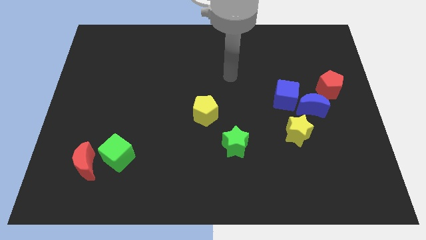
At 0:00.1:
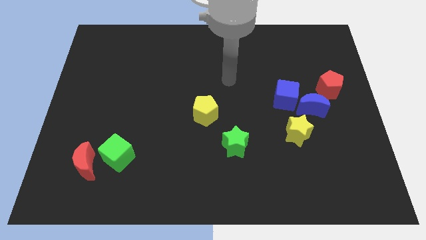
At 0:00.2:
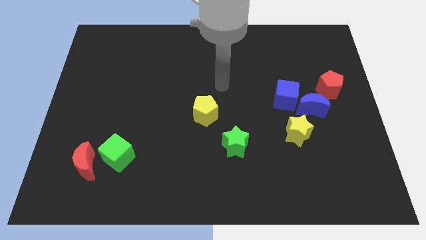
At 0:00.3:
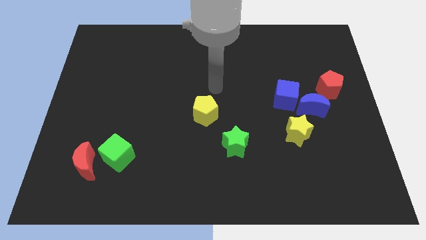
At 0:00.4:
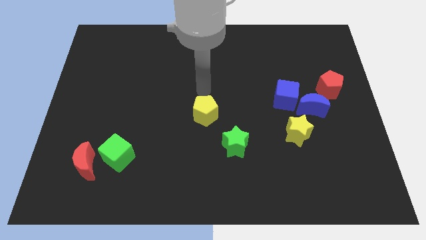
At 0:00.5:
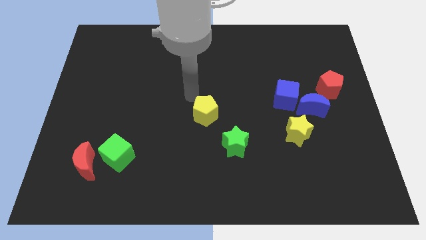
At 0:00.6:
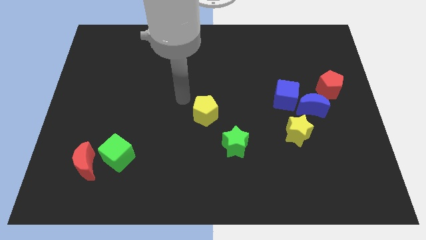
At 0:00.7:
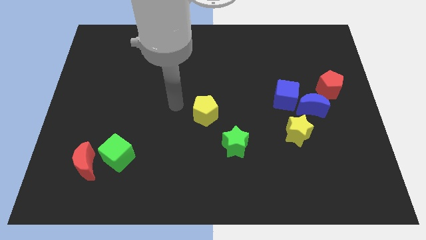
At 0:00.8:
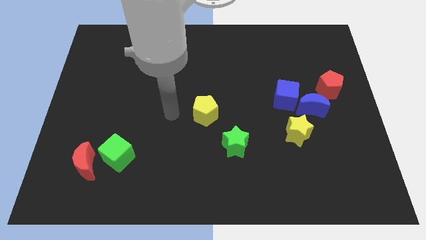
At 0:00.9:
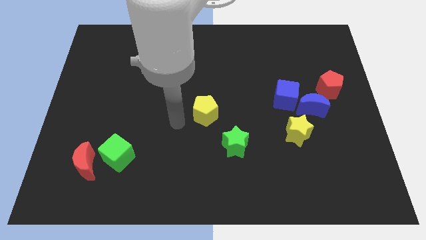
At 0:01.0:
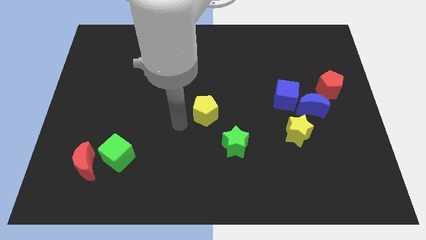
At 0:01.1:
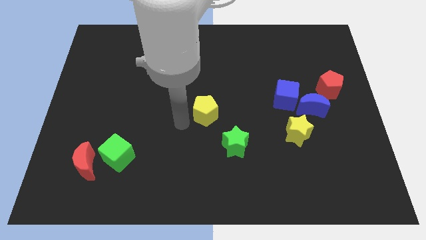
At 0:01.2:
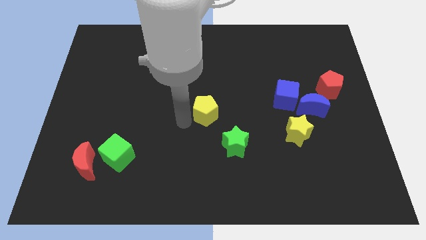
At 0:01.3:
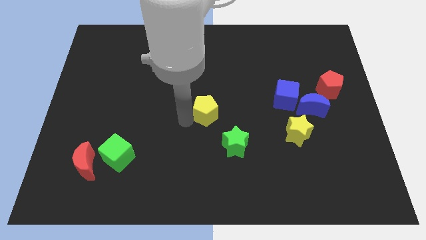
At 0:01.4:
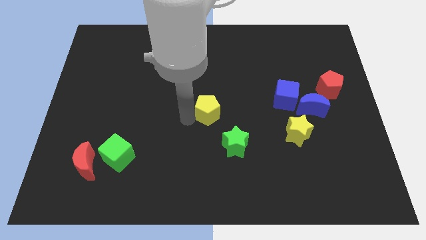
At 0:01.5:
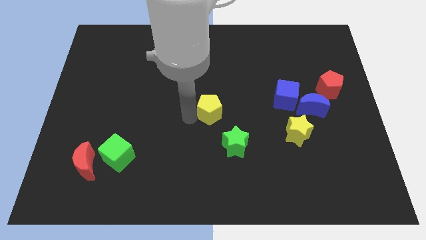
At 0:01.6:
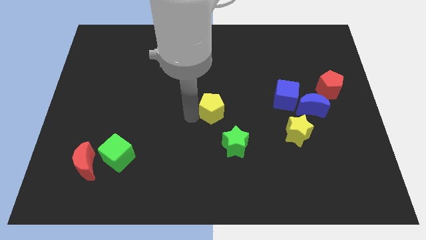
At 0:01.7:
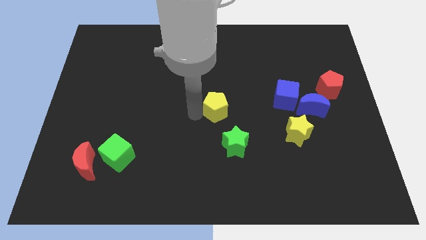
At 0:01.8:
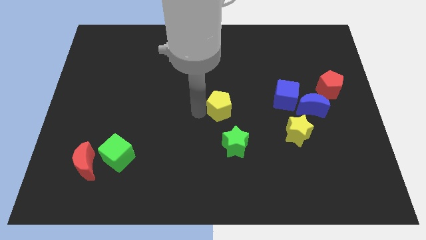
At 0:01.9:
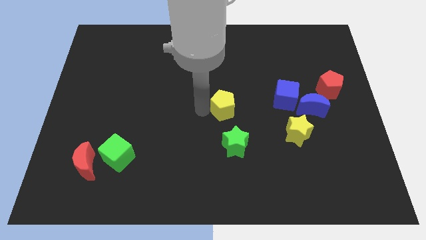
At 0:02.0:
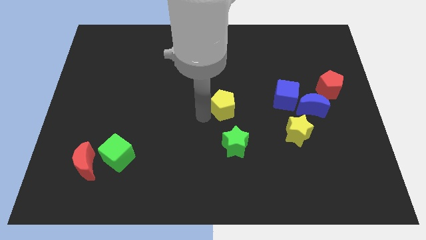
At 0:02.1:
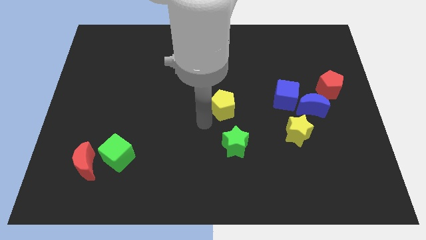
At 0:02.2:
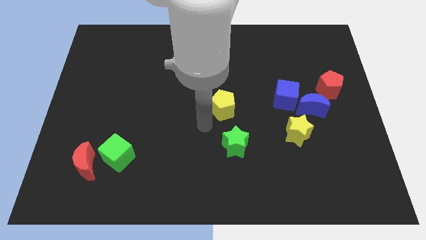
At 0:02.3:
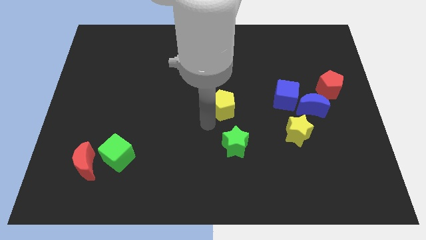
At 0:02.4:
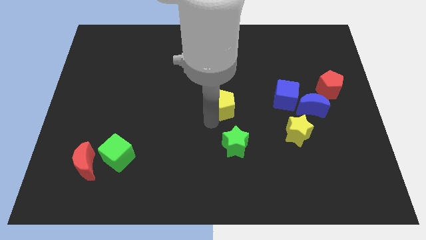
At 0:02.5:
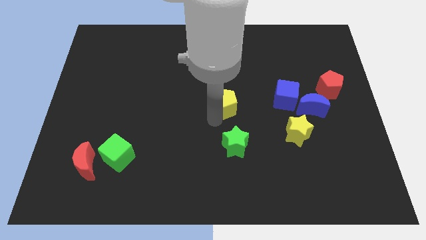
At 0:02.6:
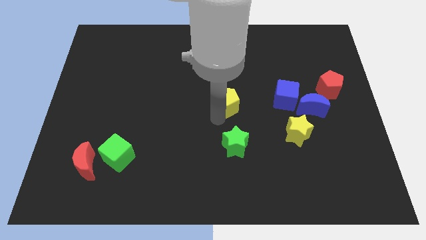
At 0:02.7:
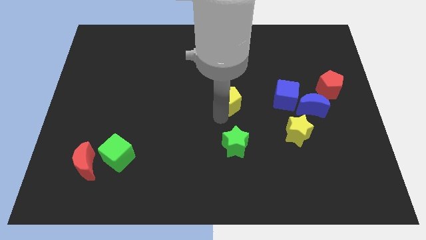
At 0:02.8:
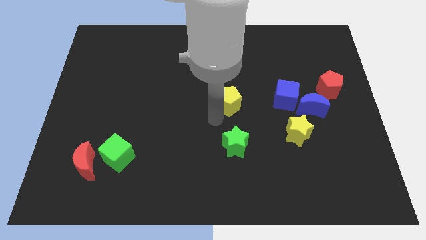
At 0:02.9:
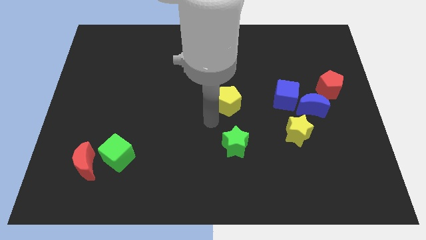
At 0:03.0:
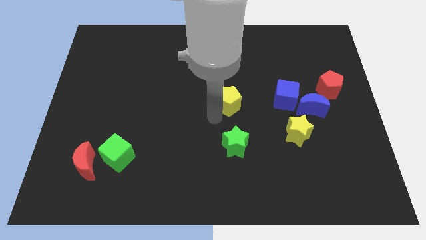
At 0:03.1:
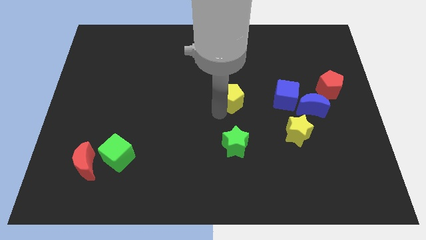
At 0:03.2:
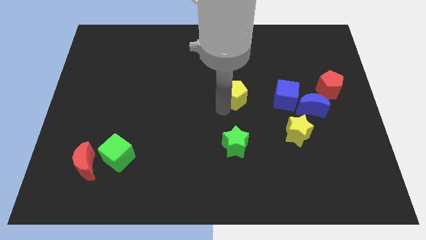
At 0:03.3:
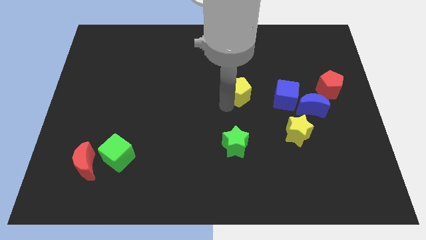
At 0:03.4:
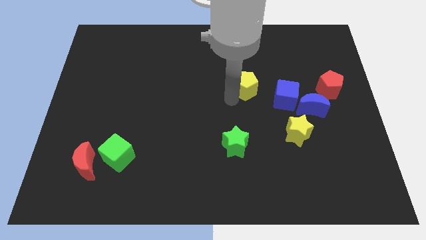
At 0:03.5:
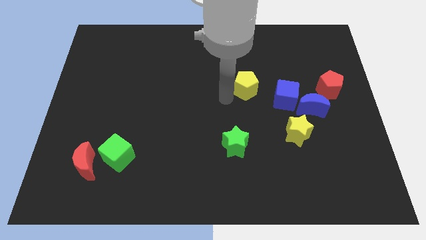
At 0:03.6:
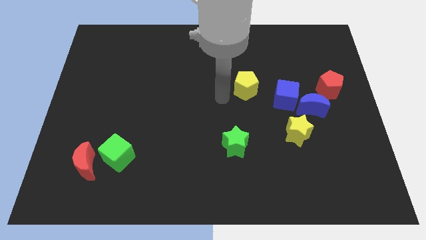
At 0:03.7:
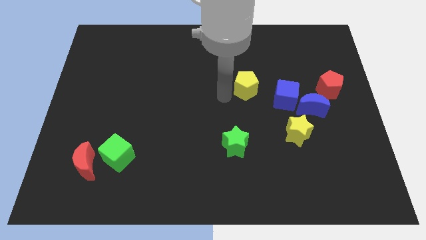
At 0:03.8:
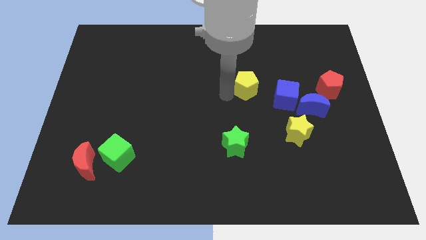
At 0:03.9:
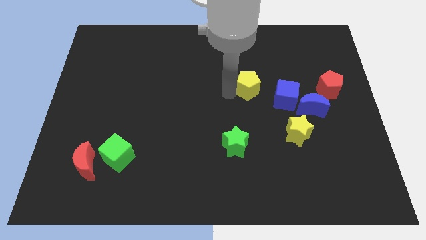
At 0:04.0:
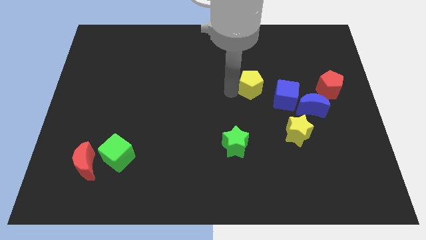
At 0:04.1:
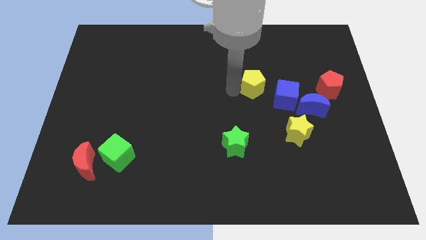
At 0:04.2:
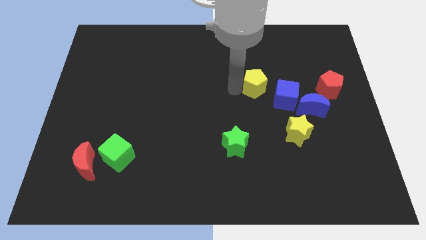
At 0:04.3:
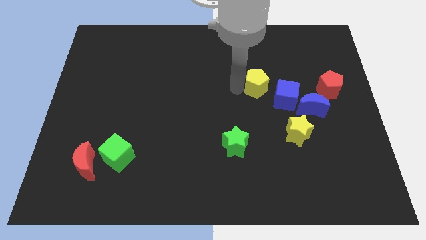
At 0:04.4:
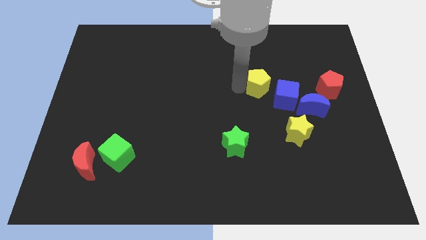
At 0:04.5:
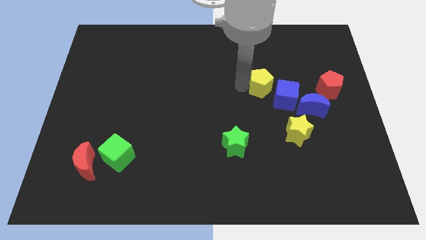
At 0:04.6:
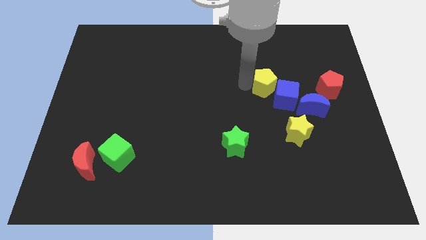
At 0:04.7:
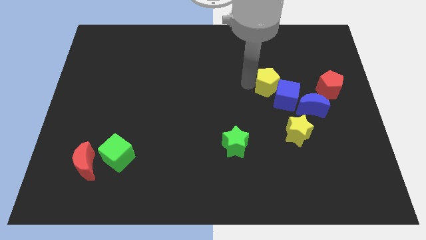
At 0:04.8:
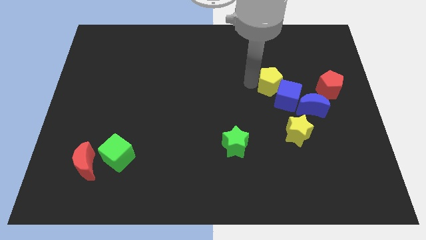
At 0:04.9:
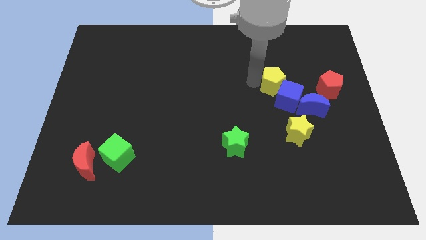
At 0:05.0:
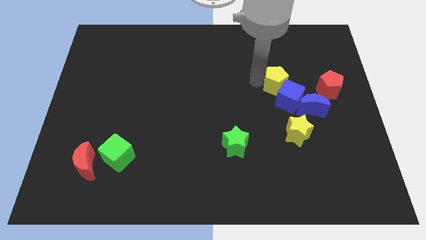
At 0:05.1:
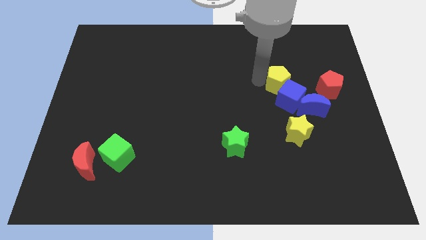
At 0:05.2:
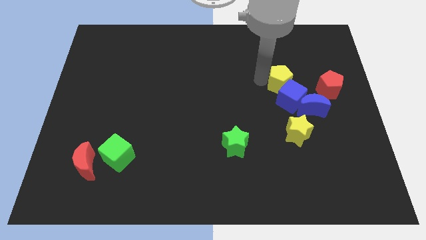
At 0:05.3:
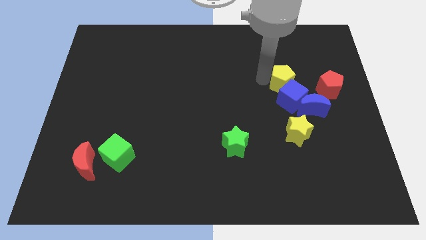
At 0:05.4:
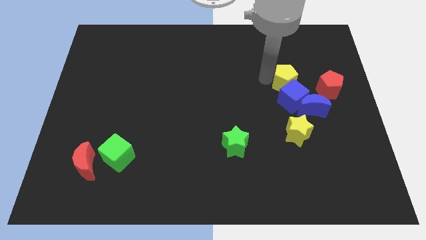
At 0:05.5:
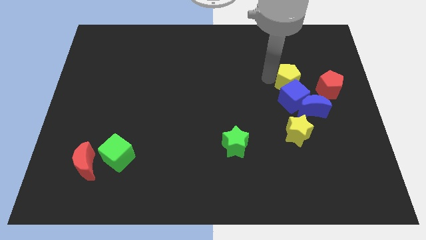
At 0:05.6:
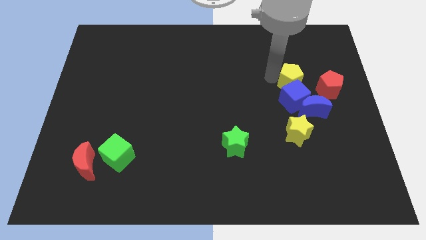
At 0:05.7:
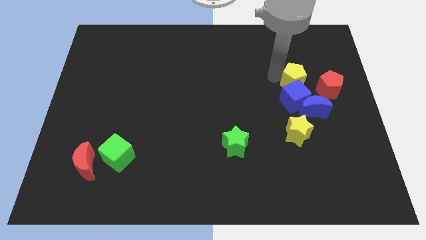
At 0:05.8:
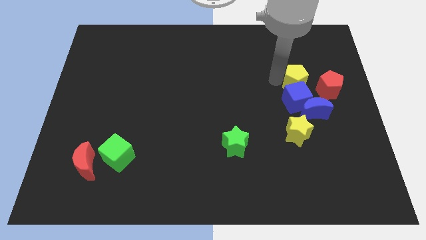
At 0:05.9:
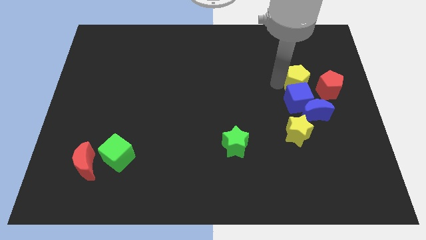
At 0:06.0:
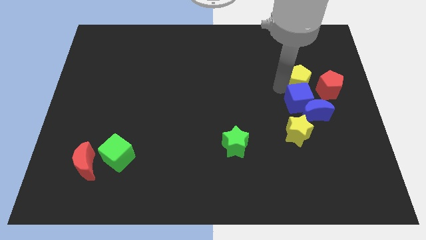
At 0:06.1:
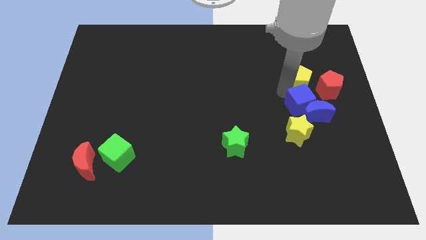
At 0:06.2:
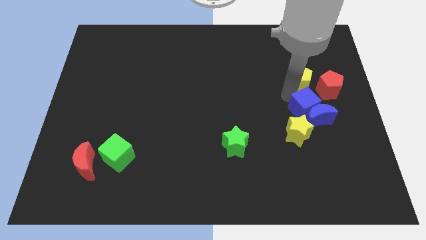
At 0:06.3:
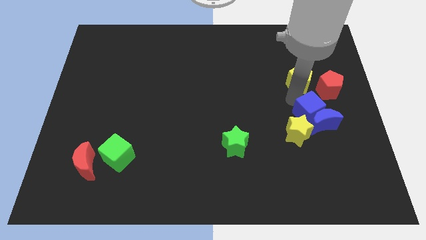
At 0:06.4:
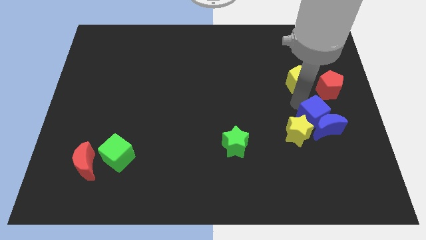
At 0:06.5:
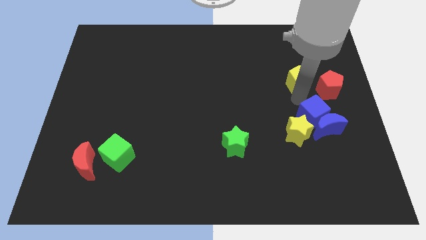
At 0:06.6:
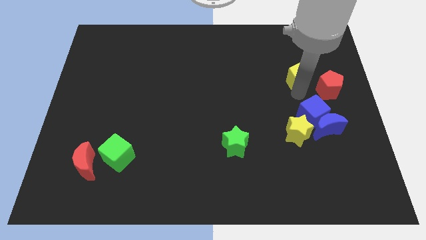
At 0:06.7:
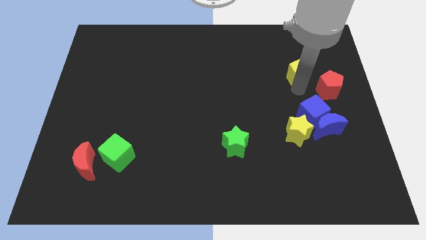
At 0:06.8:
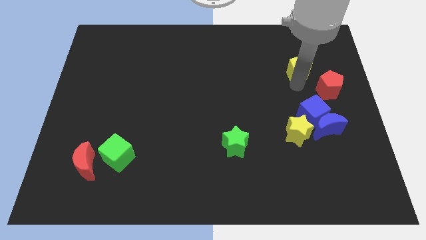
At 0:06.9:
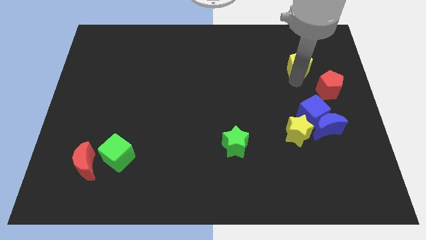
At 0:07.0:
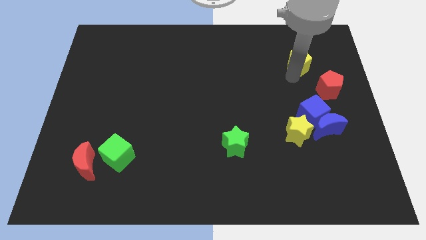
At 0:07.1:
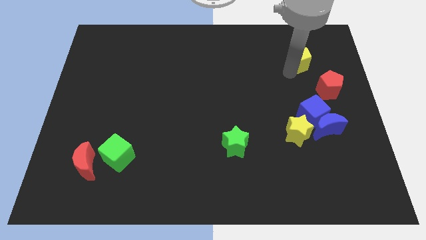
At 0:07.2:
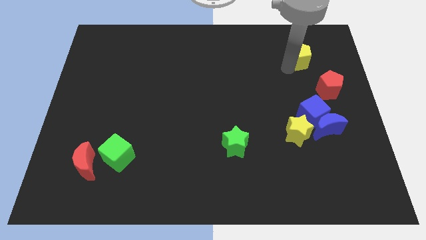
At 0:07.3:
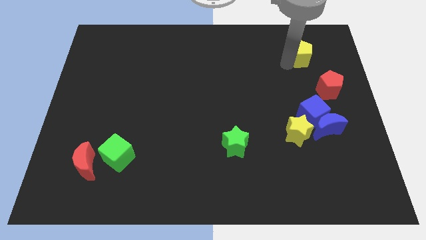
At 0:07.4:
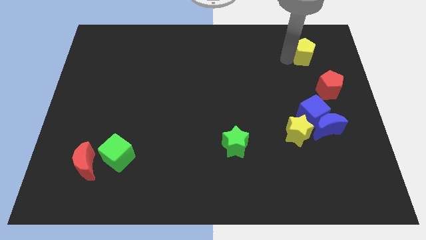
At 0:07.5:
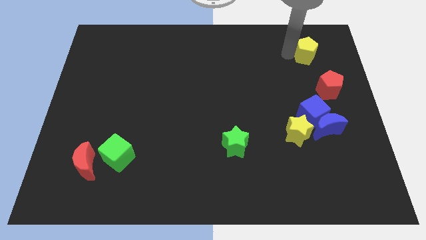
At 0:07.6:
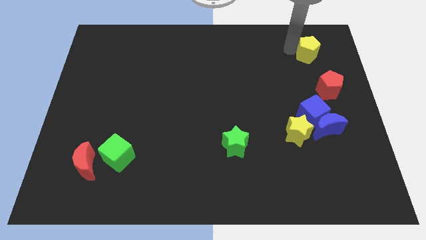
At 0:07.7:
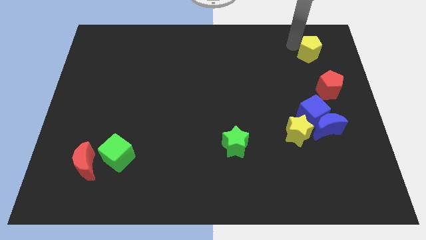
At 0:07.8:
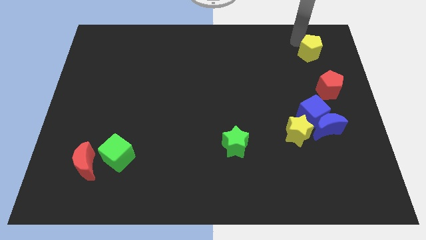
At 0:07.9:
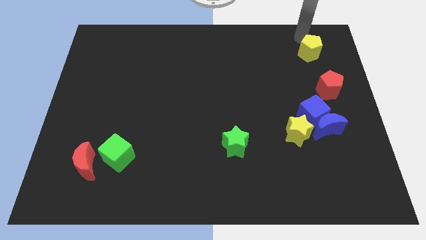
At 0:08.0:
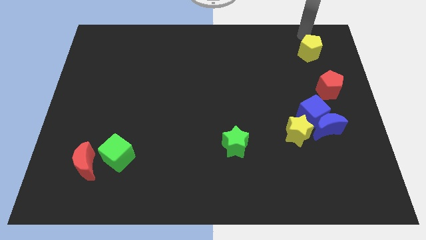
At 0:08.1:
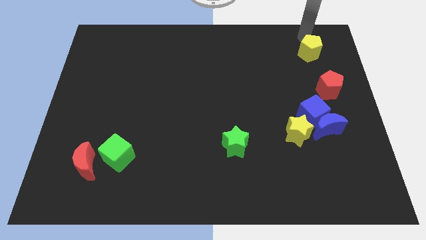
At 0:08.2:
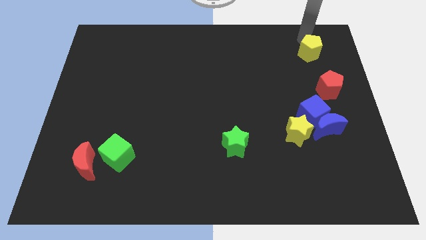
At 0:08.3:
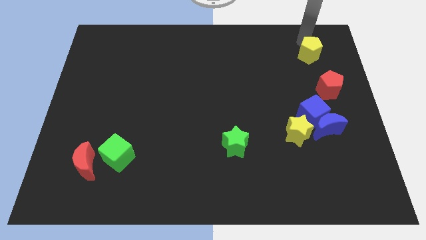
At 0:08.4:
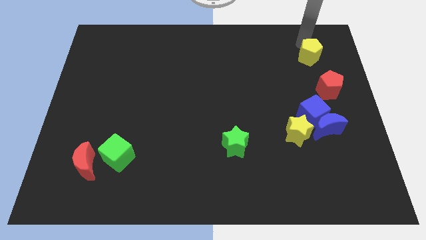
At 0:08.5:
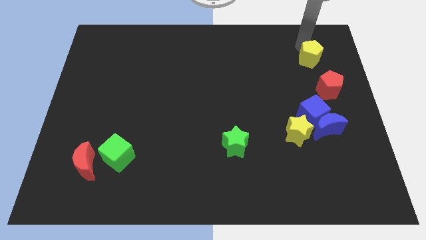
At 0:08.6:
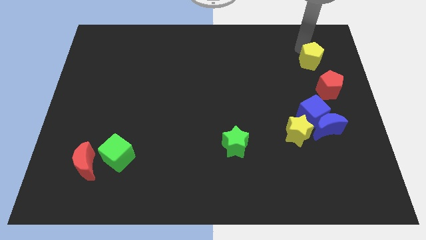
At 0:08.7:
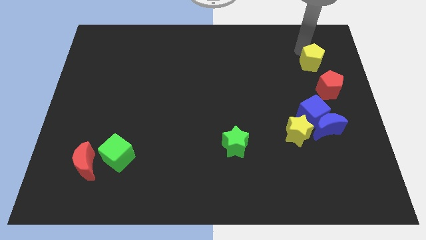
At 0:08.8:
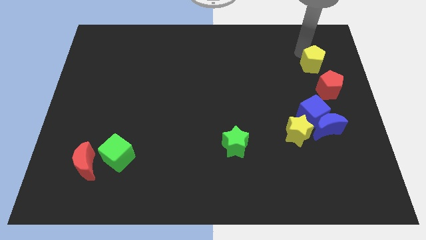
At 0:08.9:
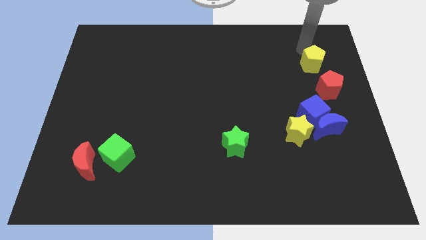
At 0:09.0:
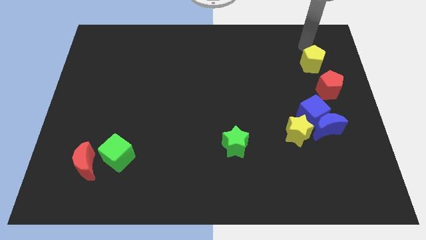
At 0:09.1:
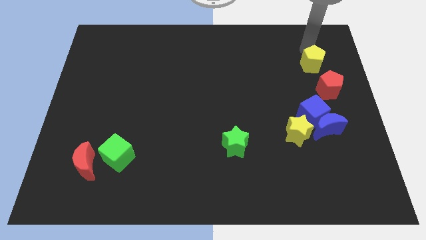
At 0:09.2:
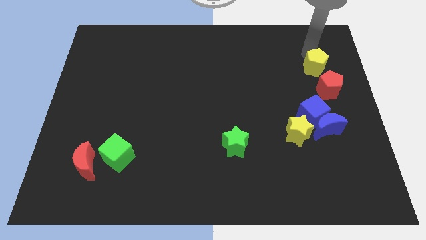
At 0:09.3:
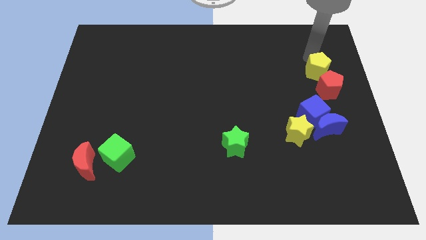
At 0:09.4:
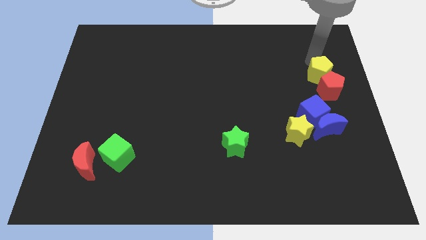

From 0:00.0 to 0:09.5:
put the yellow pentagon towards the red pentagon
